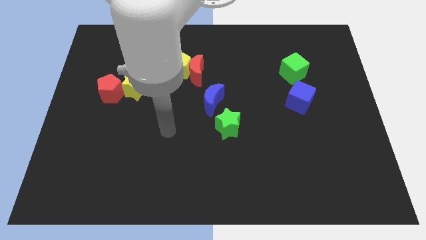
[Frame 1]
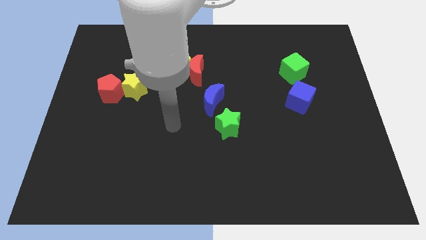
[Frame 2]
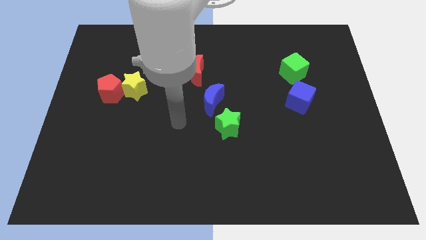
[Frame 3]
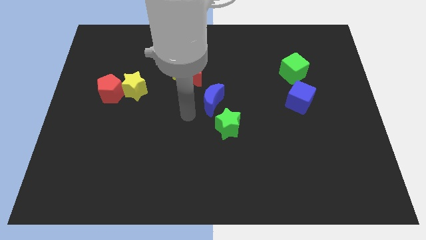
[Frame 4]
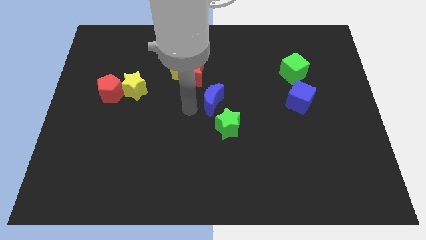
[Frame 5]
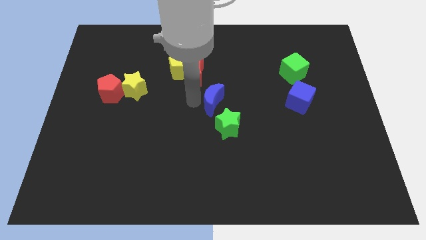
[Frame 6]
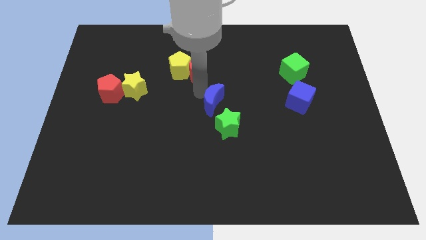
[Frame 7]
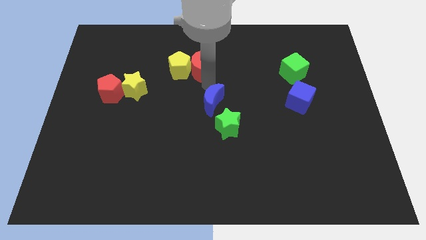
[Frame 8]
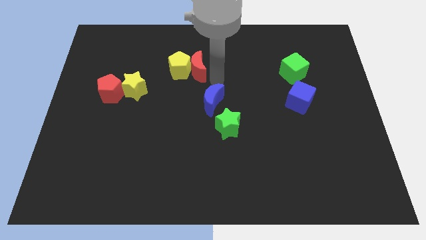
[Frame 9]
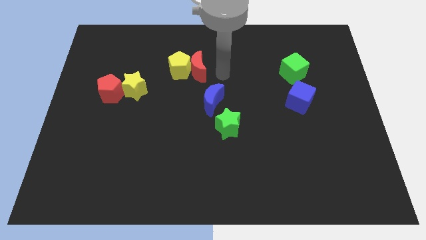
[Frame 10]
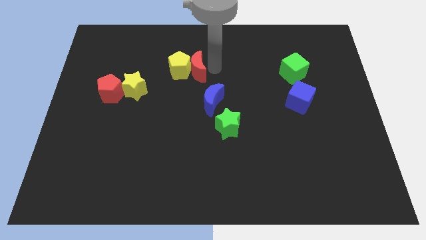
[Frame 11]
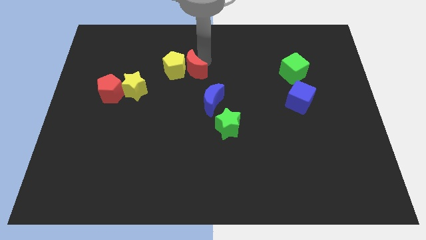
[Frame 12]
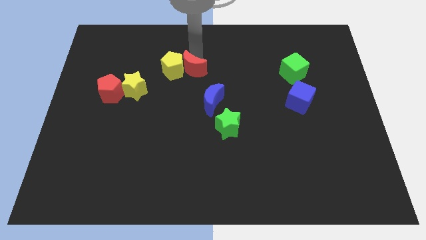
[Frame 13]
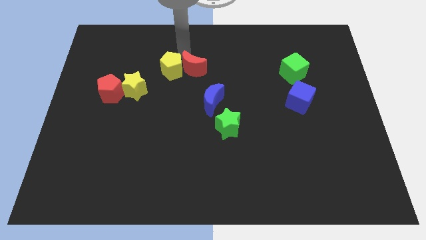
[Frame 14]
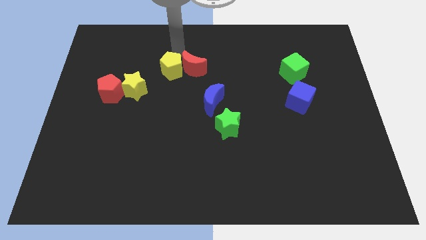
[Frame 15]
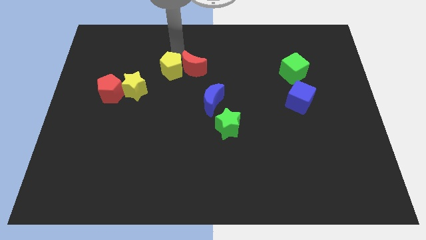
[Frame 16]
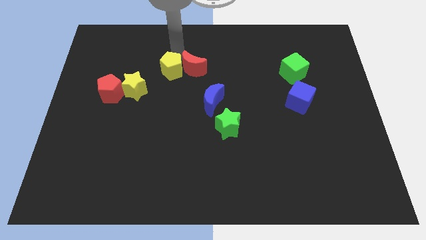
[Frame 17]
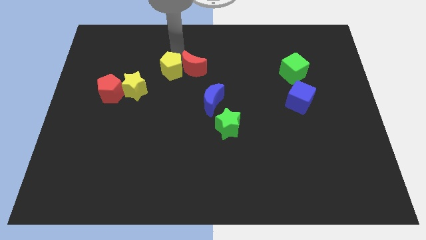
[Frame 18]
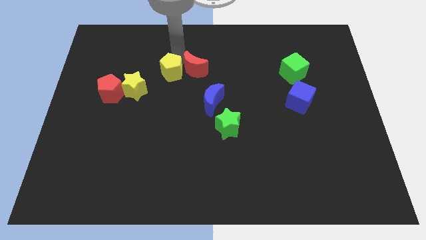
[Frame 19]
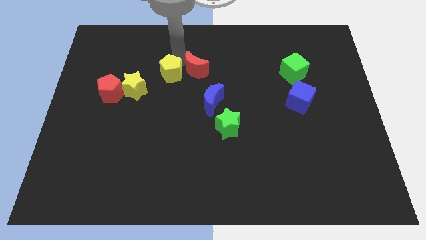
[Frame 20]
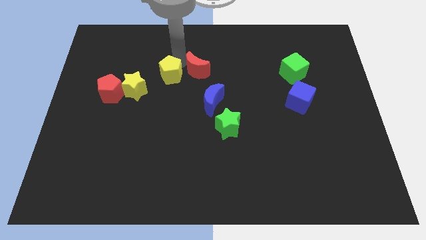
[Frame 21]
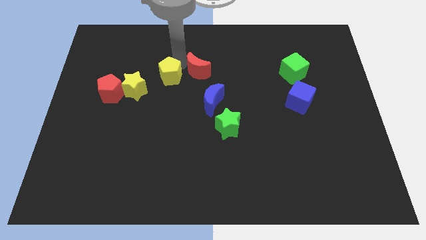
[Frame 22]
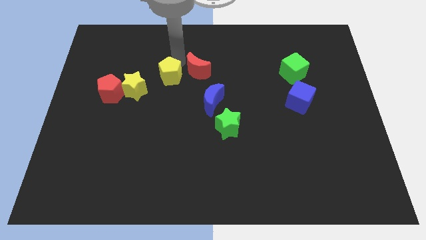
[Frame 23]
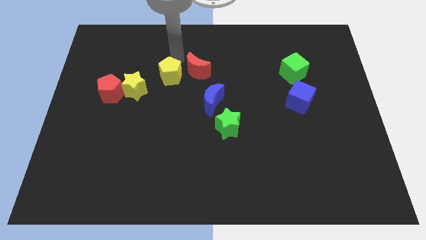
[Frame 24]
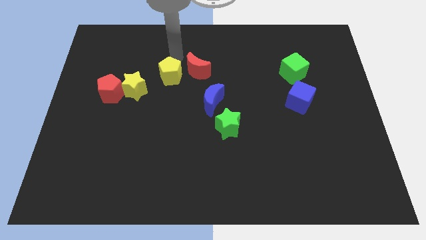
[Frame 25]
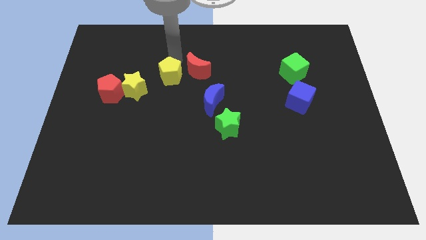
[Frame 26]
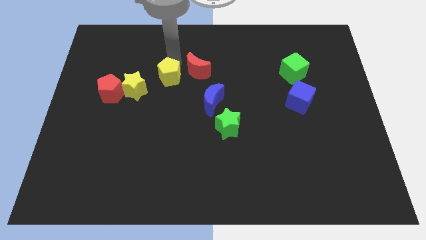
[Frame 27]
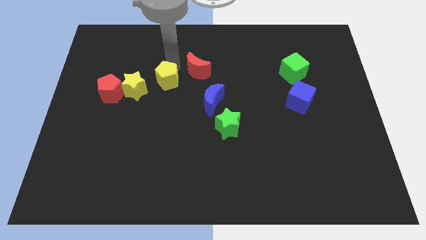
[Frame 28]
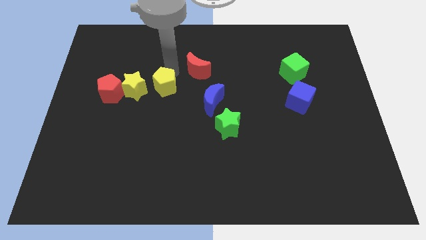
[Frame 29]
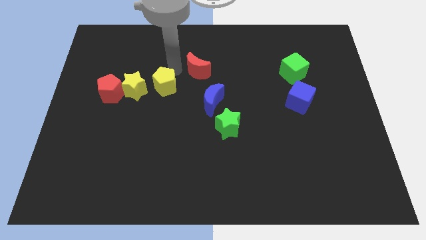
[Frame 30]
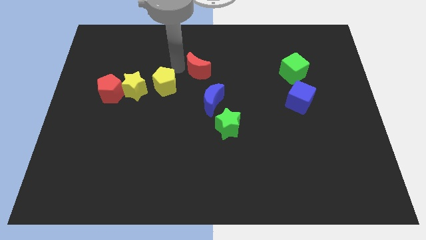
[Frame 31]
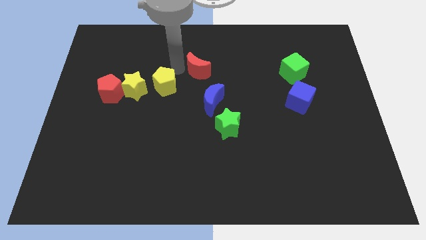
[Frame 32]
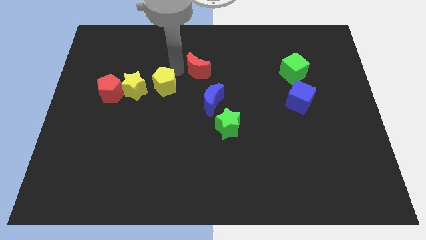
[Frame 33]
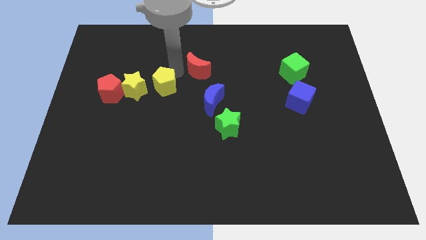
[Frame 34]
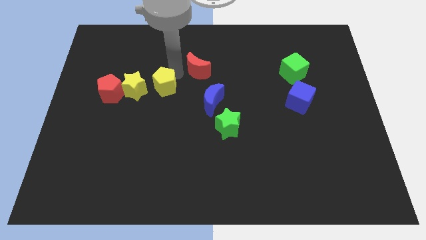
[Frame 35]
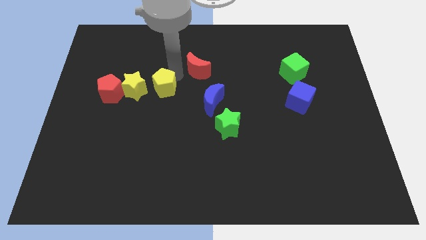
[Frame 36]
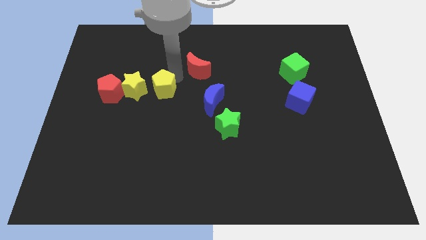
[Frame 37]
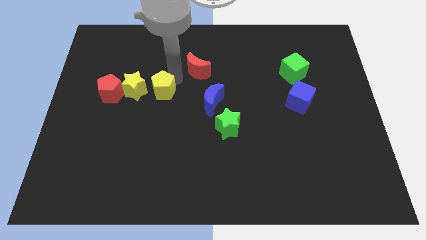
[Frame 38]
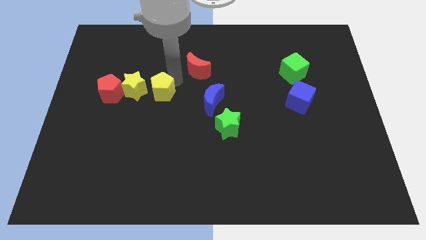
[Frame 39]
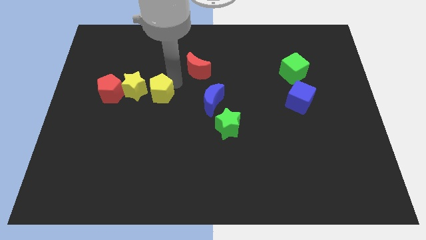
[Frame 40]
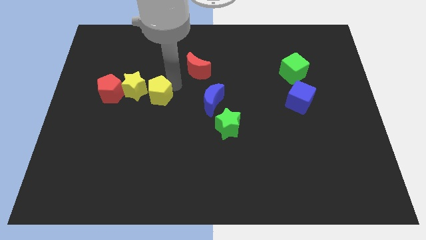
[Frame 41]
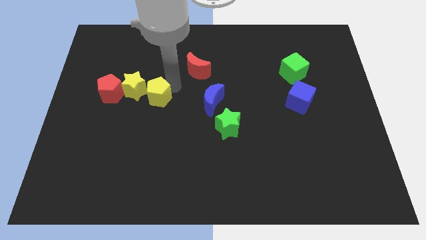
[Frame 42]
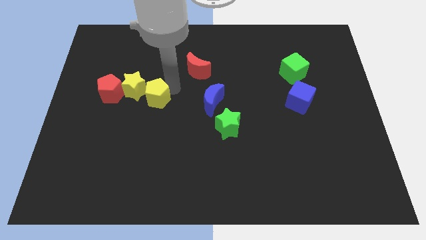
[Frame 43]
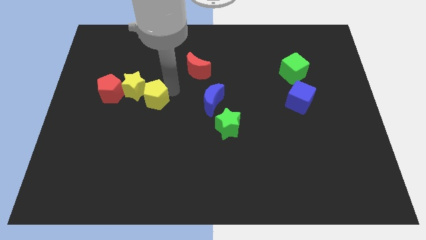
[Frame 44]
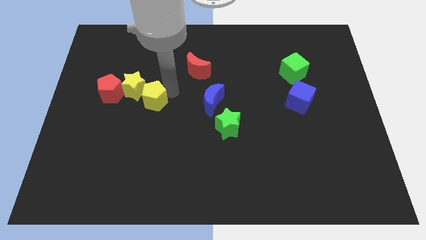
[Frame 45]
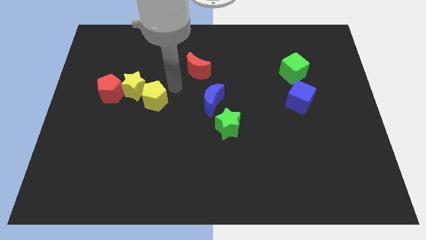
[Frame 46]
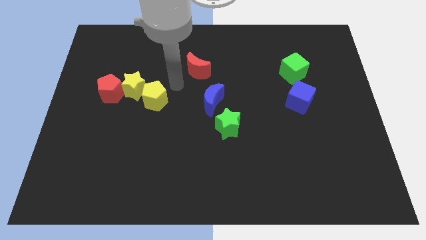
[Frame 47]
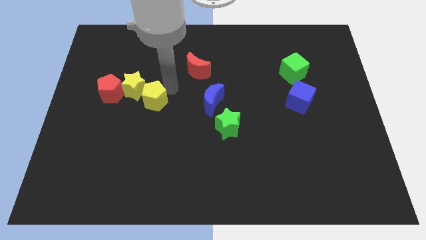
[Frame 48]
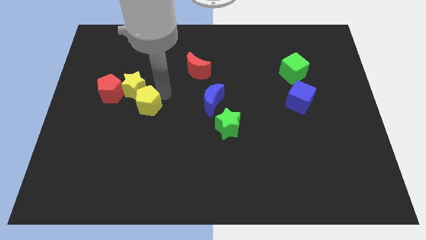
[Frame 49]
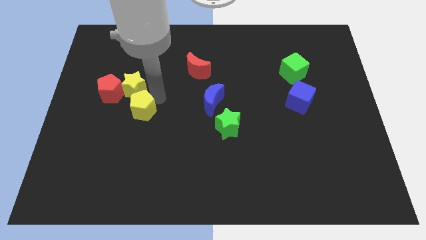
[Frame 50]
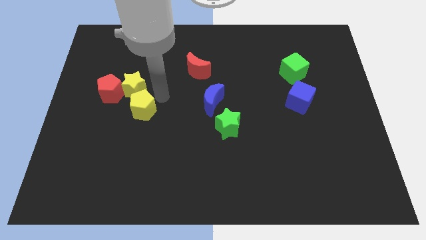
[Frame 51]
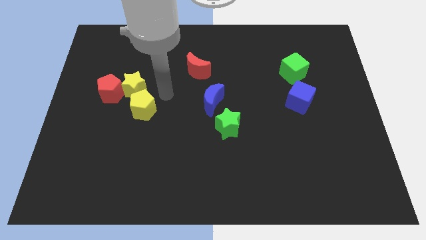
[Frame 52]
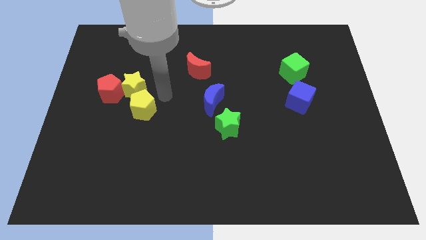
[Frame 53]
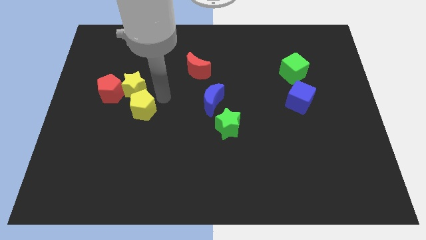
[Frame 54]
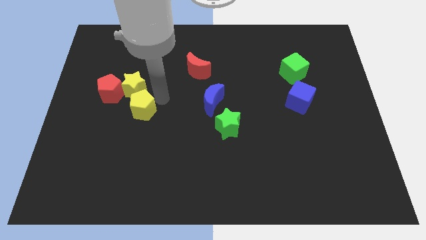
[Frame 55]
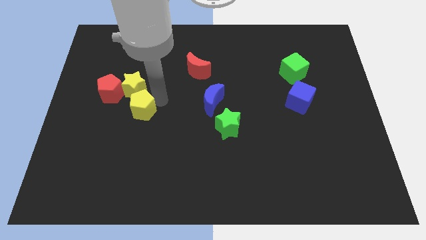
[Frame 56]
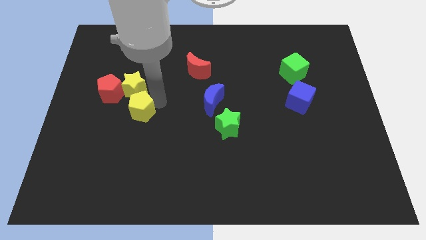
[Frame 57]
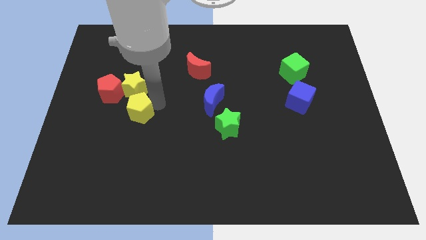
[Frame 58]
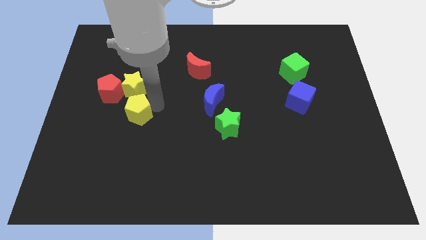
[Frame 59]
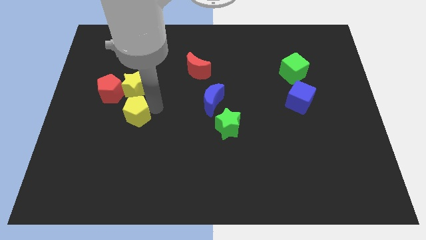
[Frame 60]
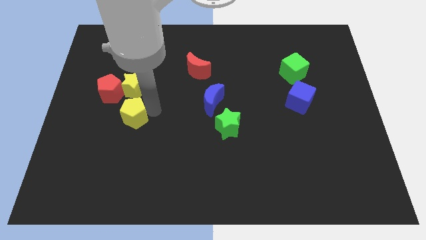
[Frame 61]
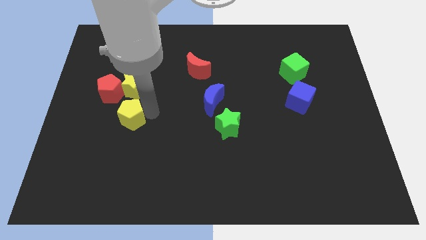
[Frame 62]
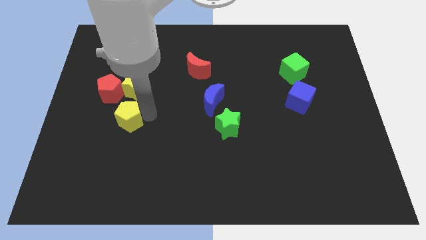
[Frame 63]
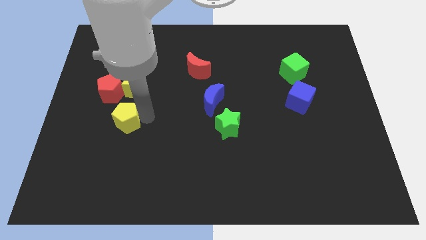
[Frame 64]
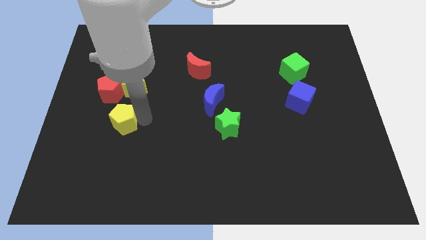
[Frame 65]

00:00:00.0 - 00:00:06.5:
put the yellow pentagon to the bottom side of the red pentagon
